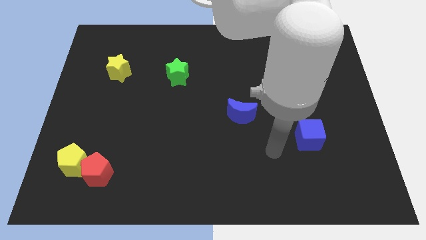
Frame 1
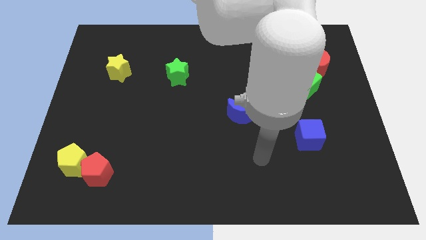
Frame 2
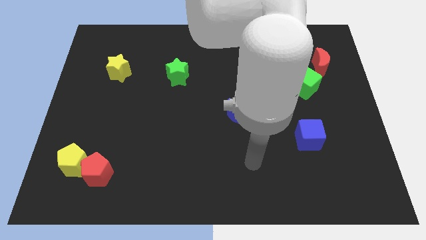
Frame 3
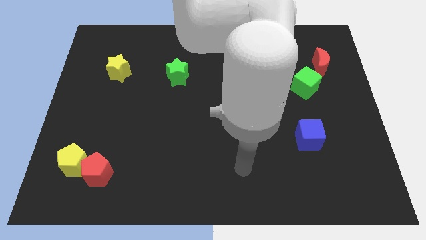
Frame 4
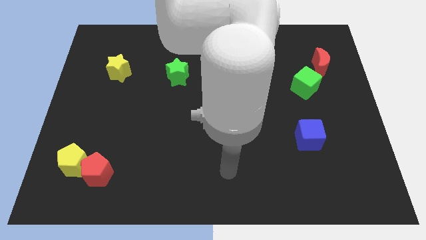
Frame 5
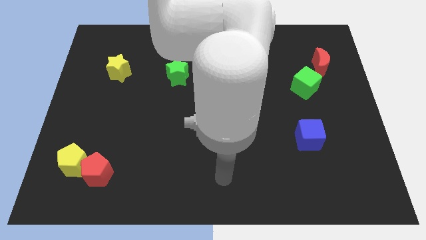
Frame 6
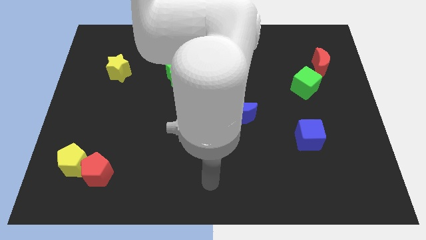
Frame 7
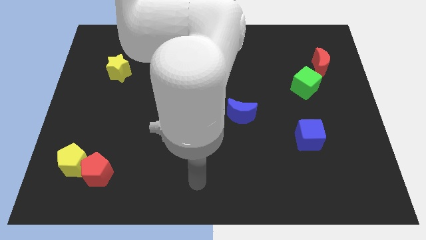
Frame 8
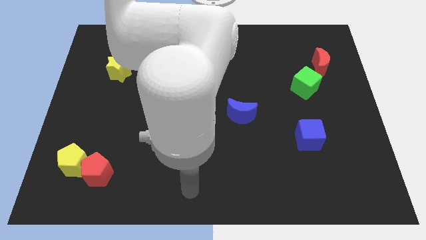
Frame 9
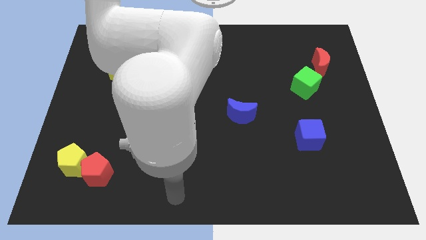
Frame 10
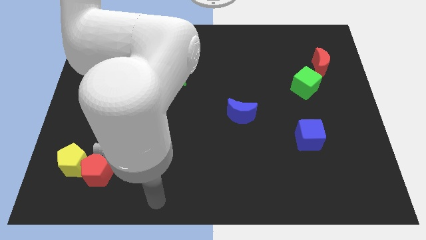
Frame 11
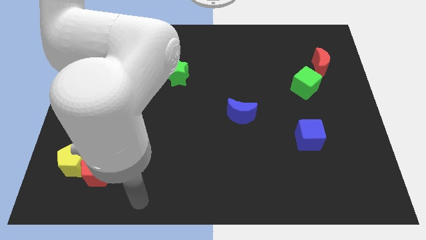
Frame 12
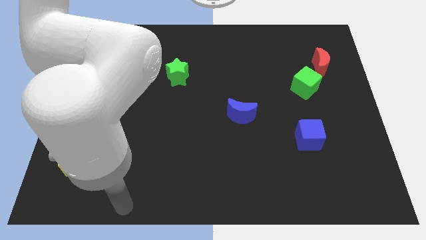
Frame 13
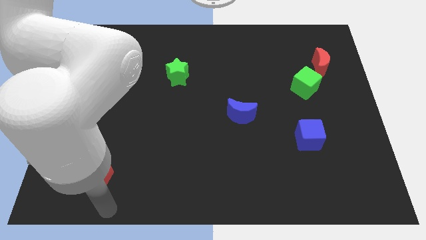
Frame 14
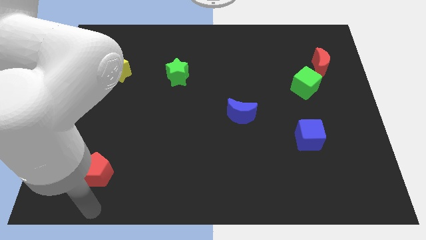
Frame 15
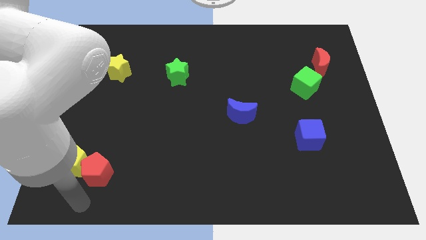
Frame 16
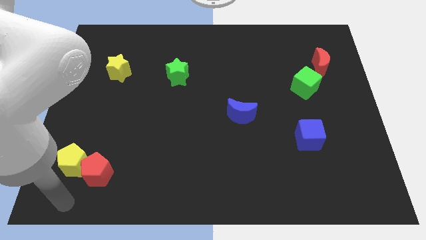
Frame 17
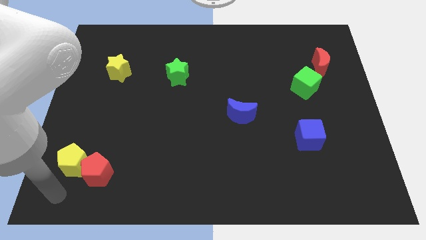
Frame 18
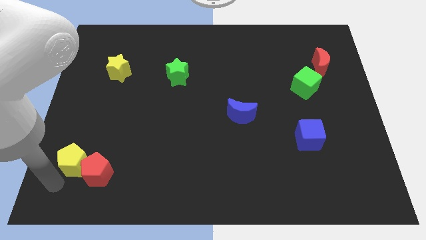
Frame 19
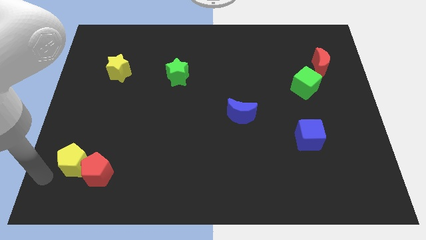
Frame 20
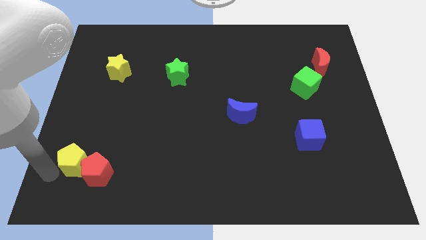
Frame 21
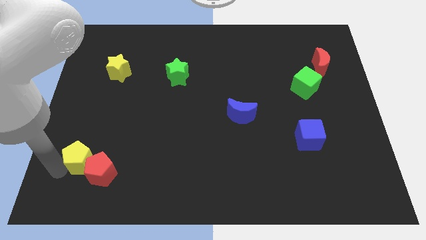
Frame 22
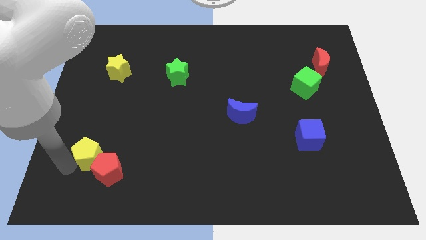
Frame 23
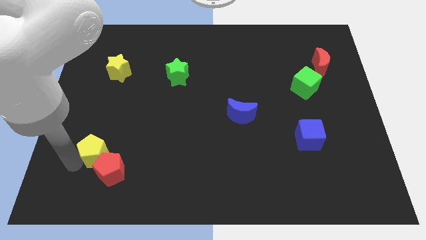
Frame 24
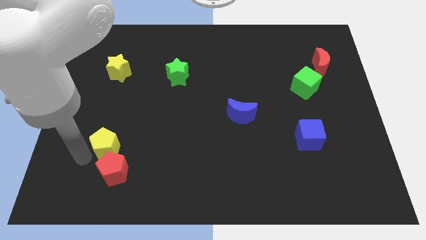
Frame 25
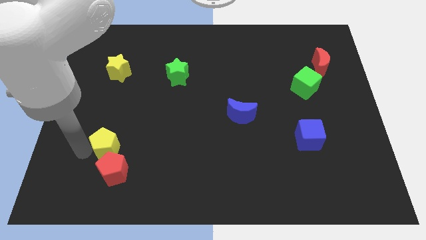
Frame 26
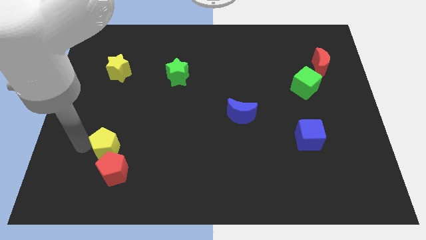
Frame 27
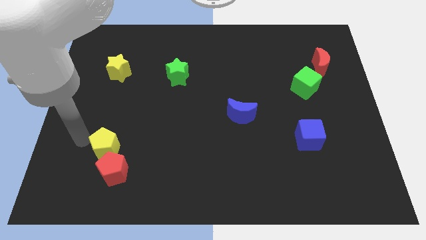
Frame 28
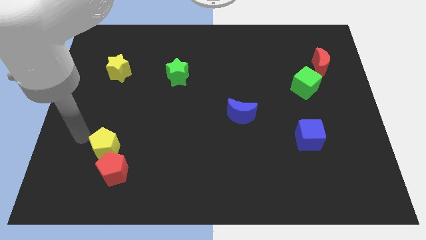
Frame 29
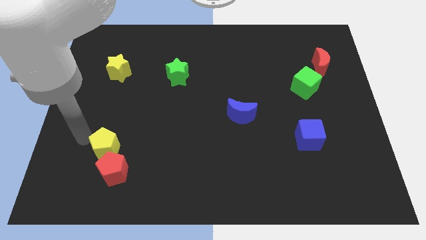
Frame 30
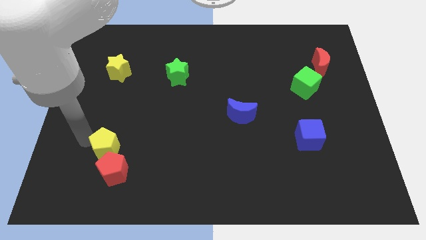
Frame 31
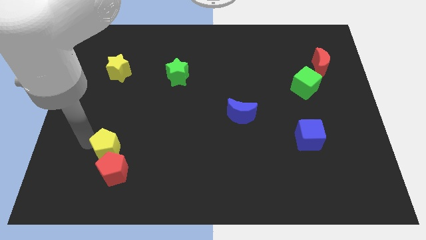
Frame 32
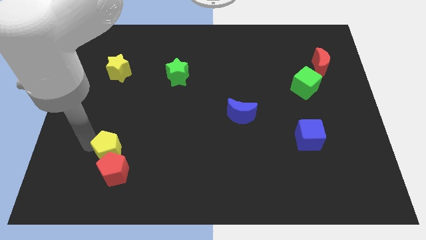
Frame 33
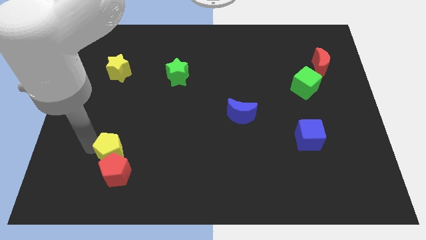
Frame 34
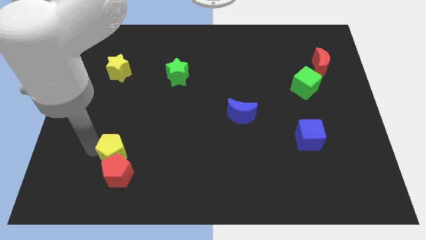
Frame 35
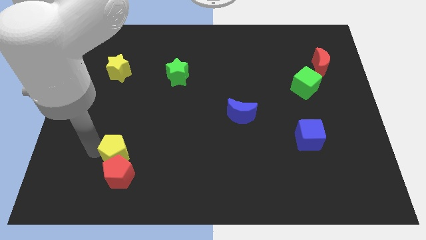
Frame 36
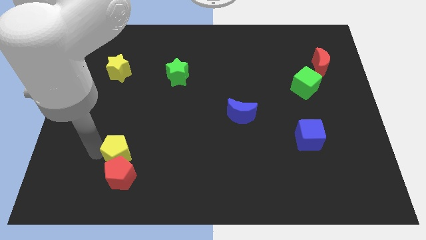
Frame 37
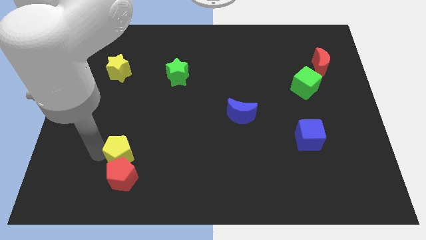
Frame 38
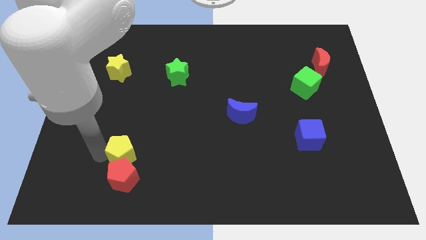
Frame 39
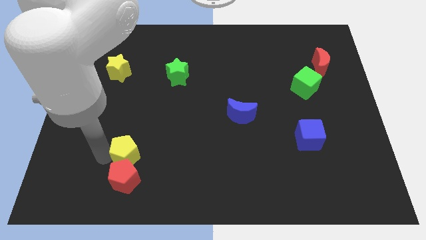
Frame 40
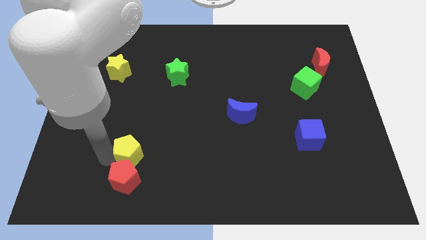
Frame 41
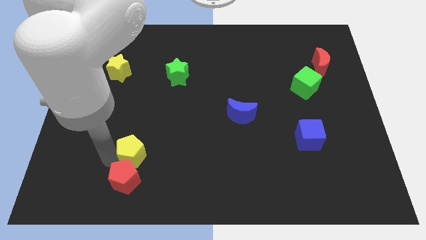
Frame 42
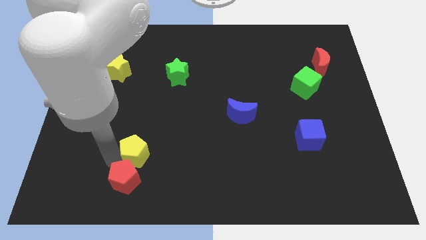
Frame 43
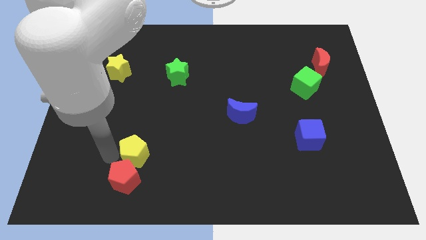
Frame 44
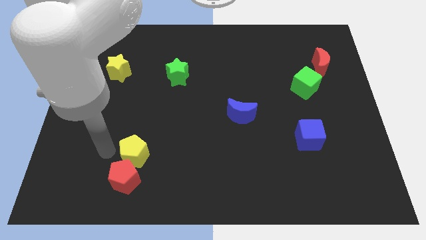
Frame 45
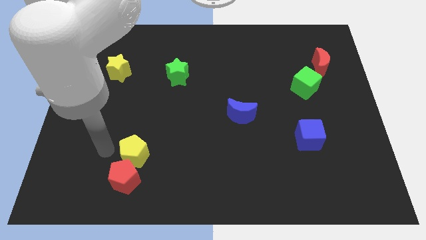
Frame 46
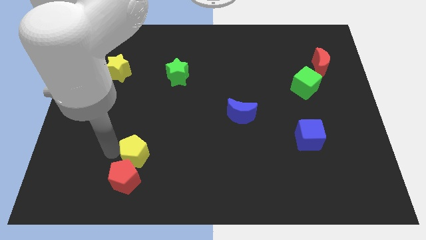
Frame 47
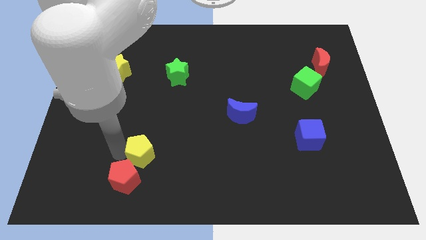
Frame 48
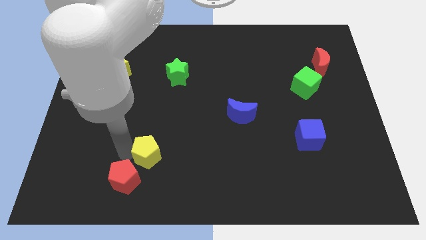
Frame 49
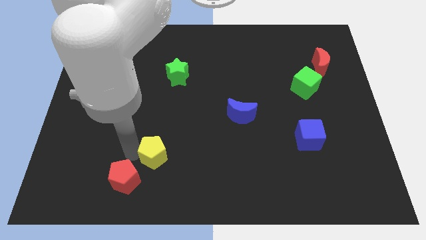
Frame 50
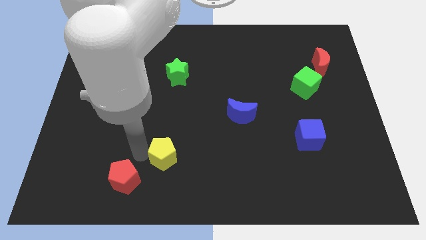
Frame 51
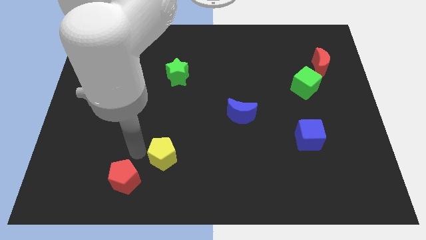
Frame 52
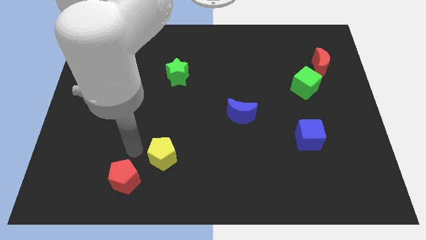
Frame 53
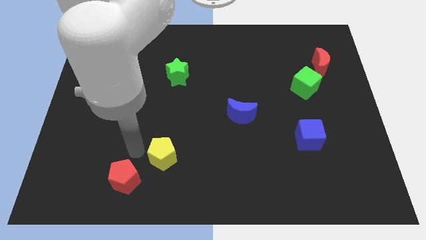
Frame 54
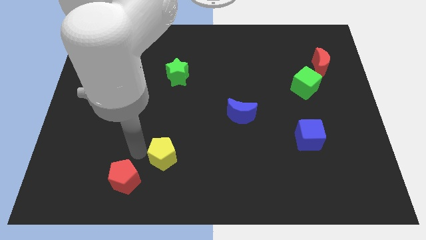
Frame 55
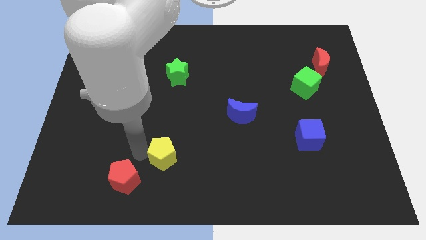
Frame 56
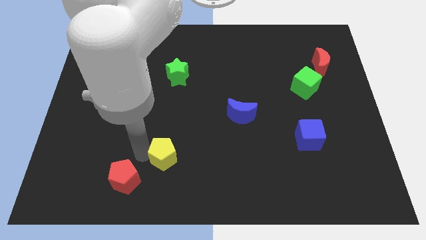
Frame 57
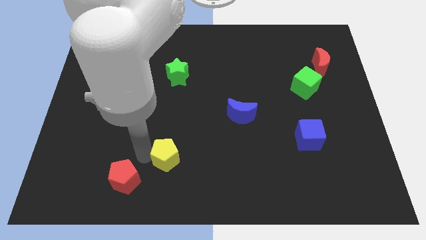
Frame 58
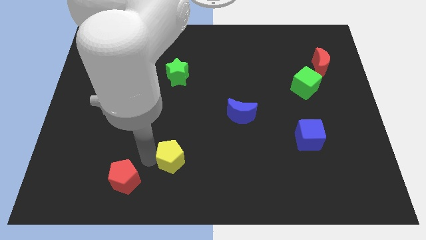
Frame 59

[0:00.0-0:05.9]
move the yellow pentagon right

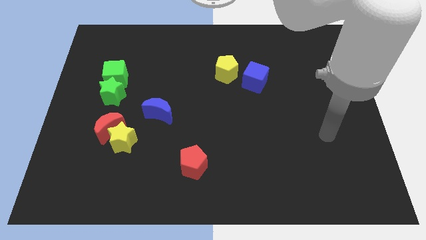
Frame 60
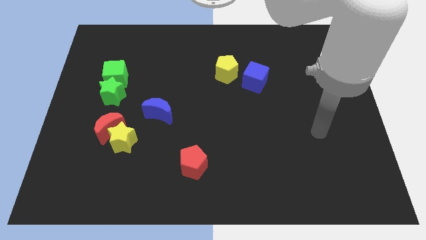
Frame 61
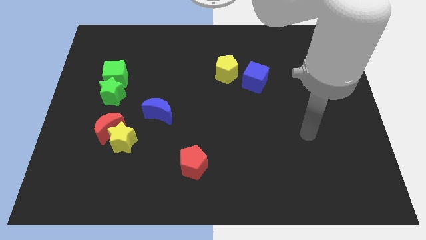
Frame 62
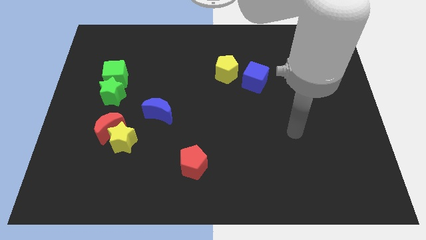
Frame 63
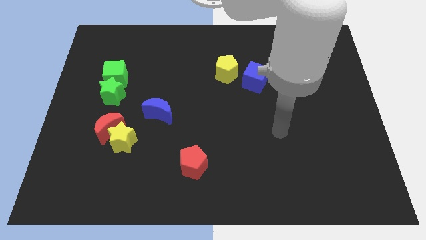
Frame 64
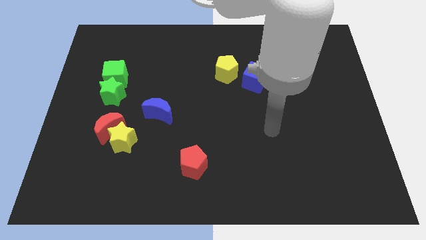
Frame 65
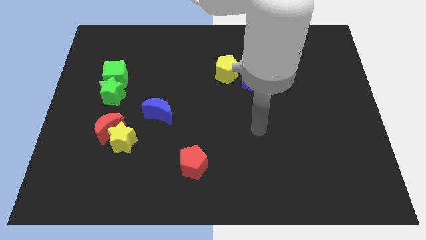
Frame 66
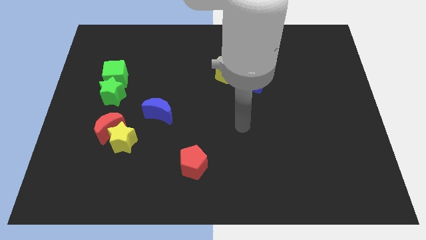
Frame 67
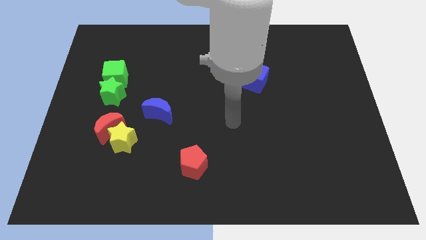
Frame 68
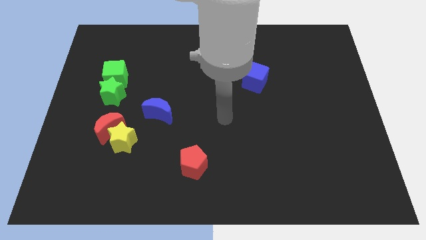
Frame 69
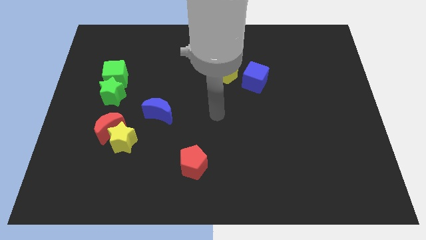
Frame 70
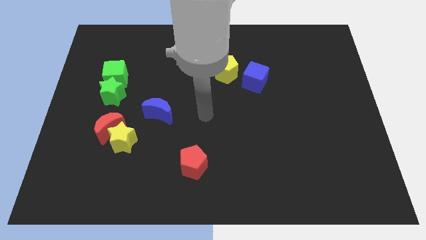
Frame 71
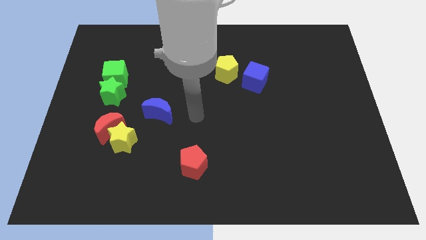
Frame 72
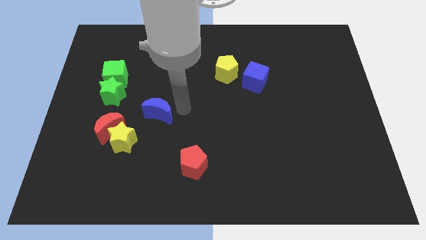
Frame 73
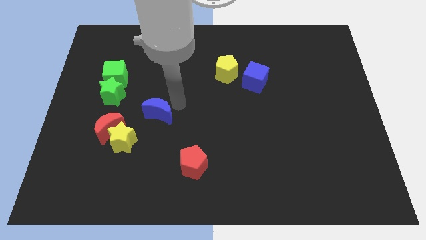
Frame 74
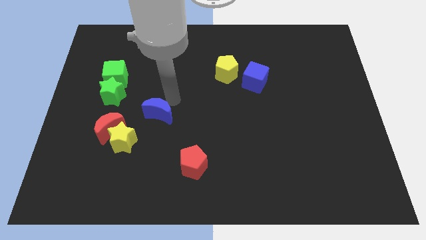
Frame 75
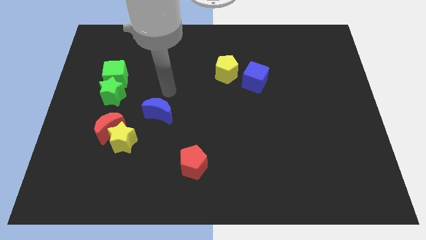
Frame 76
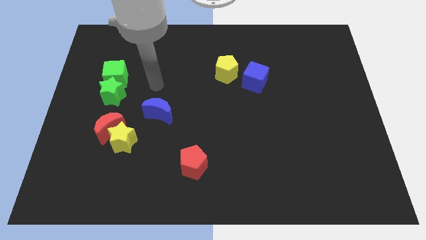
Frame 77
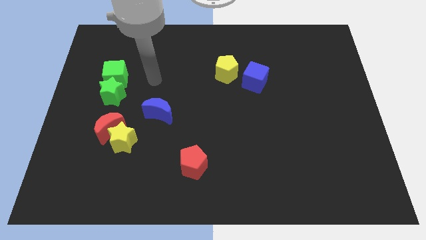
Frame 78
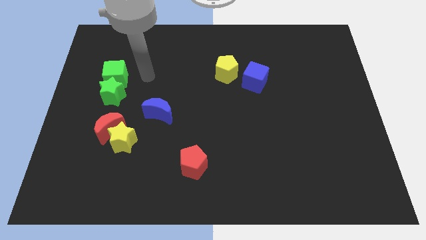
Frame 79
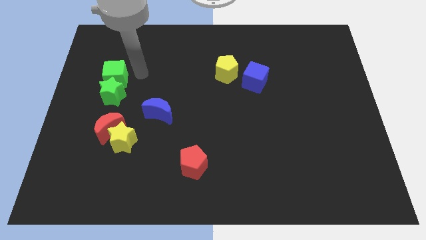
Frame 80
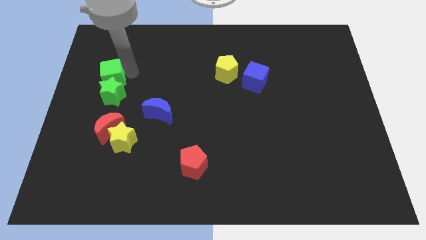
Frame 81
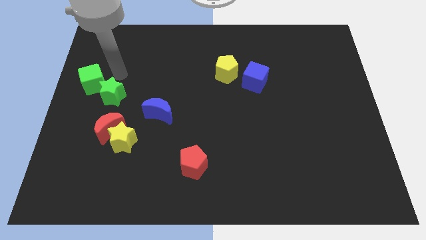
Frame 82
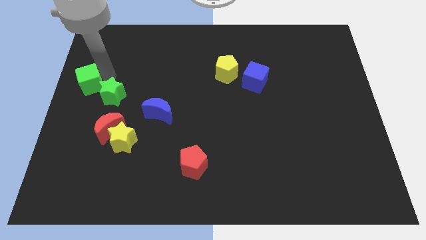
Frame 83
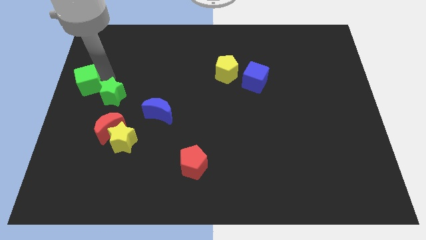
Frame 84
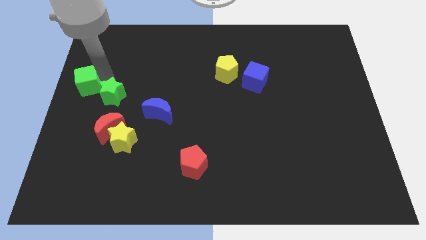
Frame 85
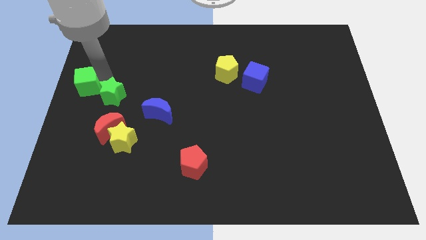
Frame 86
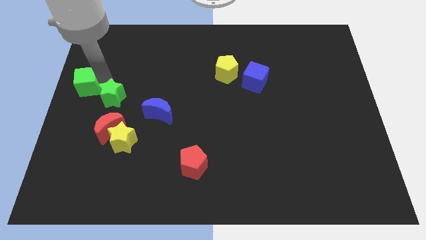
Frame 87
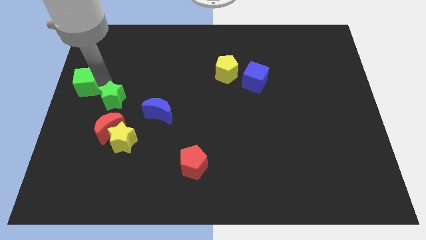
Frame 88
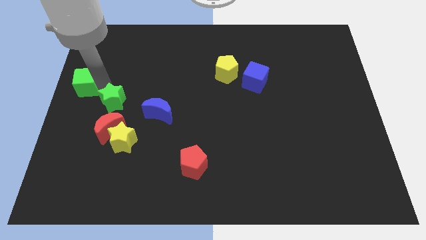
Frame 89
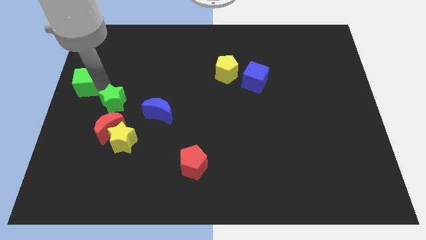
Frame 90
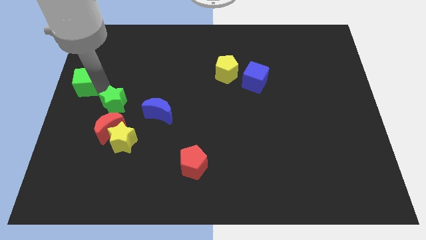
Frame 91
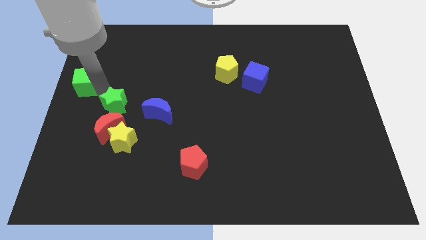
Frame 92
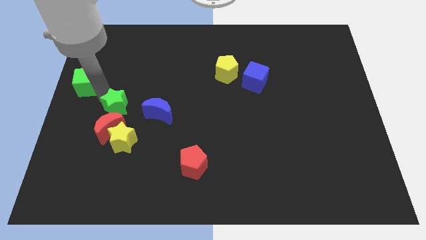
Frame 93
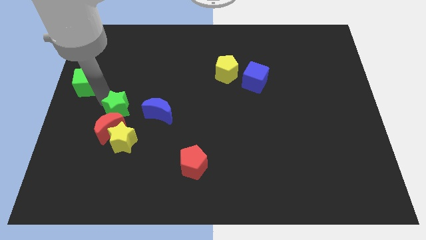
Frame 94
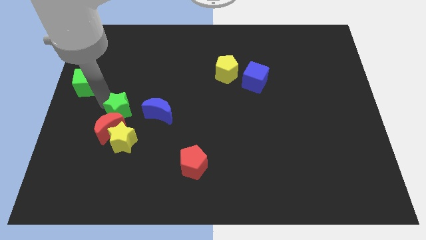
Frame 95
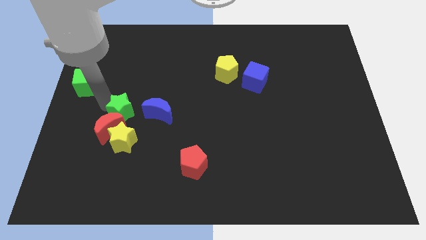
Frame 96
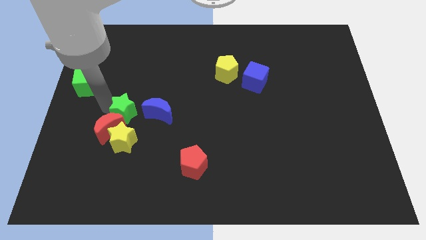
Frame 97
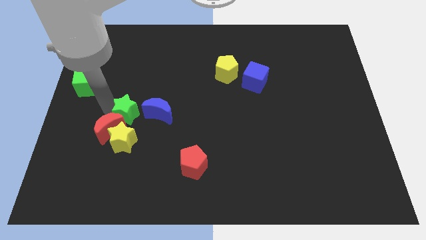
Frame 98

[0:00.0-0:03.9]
slightly move the green star downwards and right diagonally
